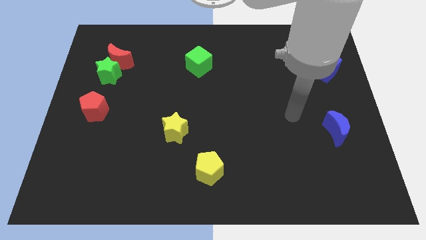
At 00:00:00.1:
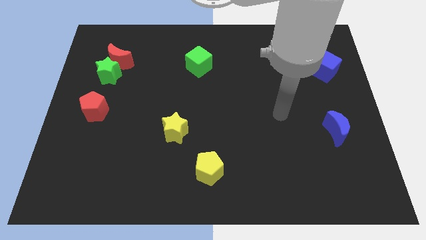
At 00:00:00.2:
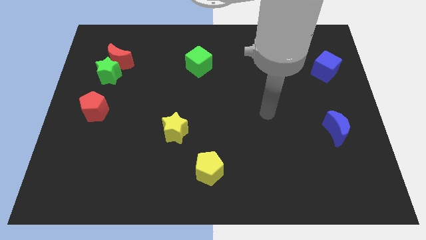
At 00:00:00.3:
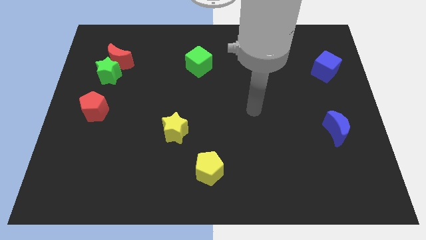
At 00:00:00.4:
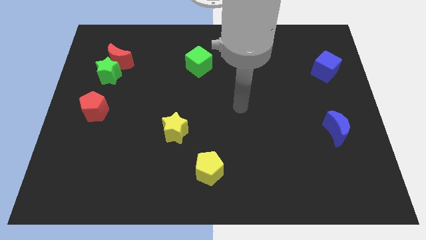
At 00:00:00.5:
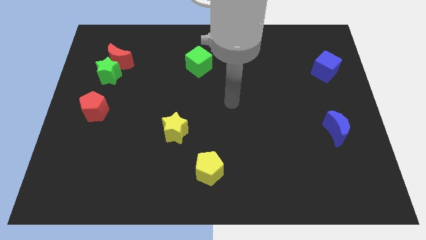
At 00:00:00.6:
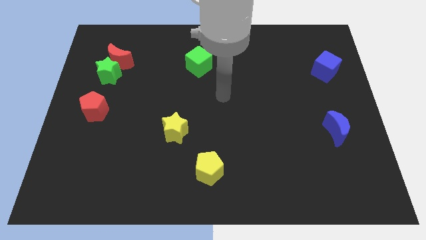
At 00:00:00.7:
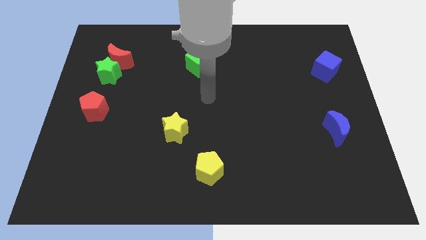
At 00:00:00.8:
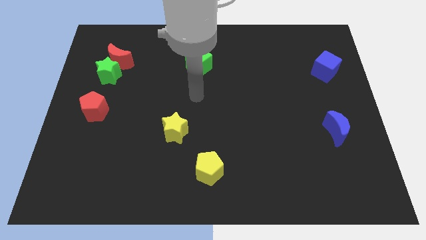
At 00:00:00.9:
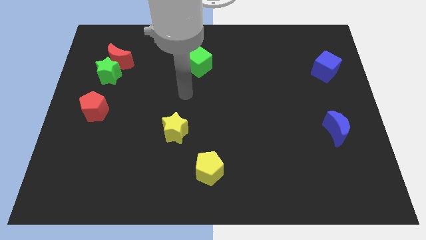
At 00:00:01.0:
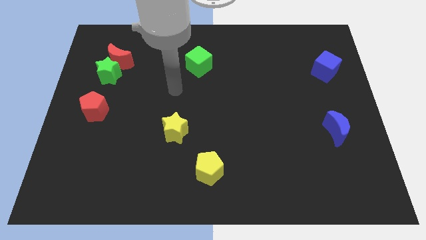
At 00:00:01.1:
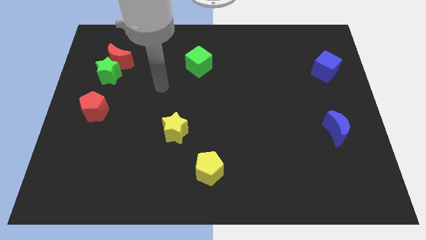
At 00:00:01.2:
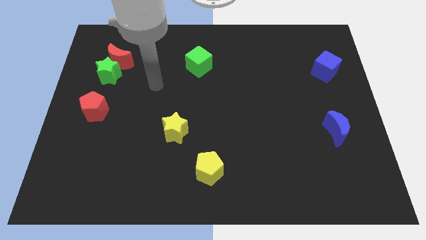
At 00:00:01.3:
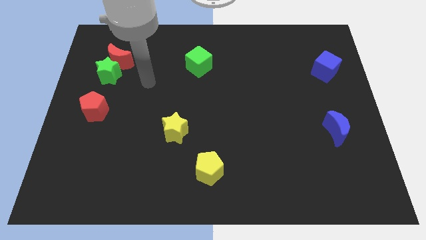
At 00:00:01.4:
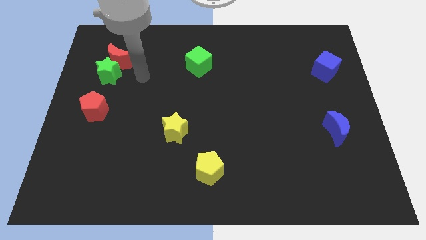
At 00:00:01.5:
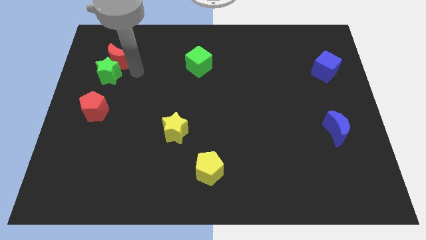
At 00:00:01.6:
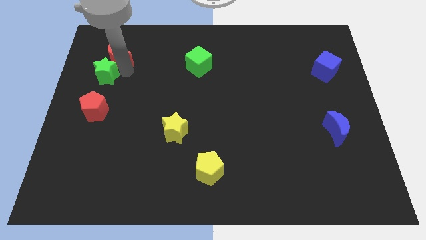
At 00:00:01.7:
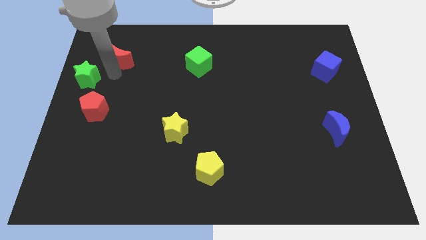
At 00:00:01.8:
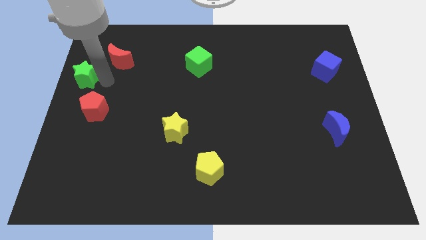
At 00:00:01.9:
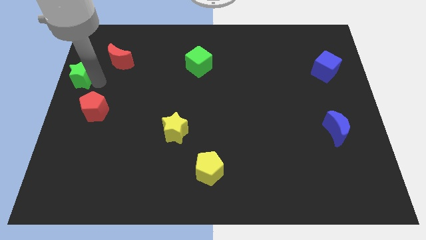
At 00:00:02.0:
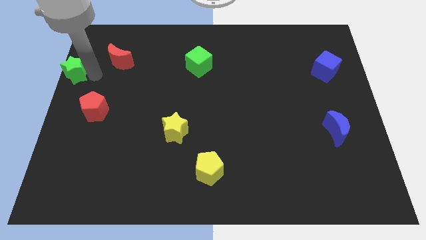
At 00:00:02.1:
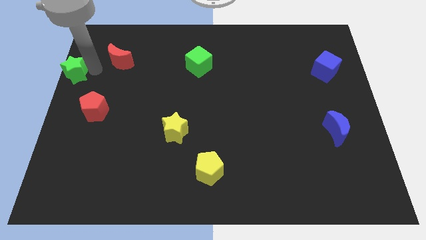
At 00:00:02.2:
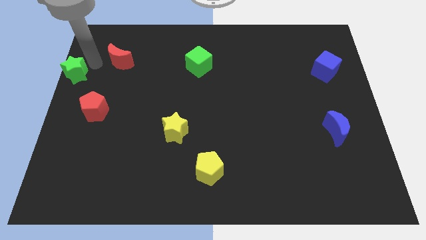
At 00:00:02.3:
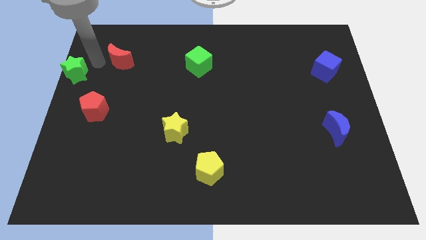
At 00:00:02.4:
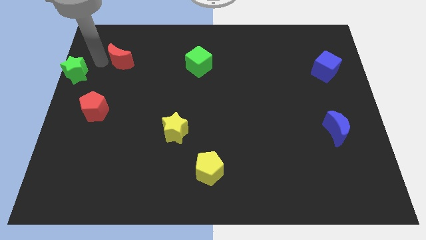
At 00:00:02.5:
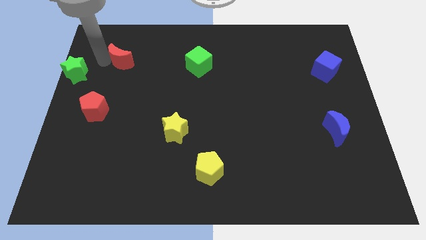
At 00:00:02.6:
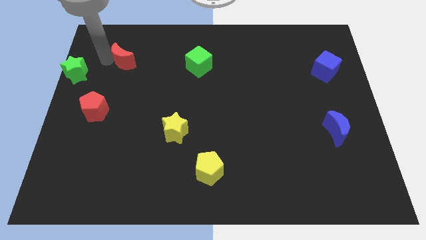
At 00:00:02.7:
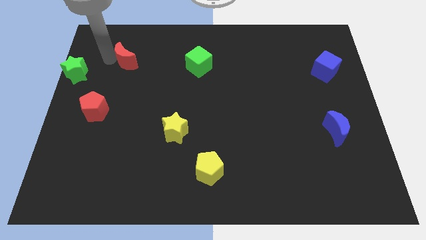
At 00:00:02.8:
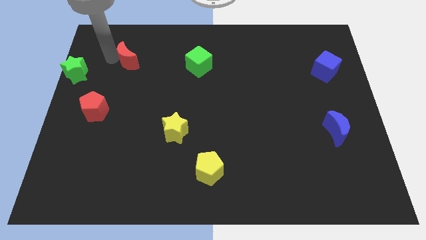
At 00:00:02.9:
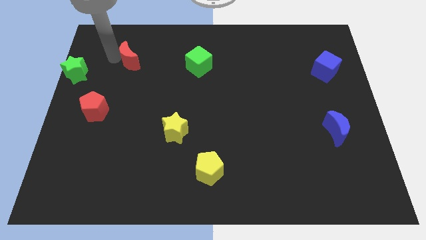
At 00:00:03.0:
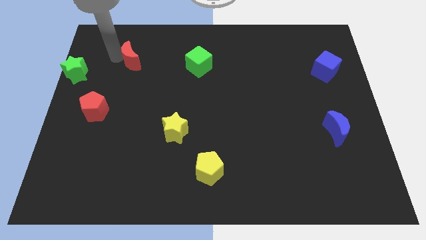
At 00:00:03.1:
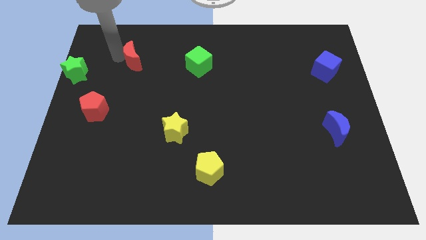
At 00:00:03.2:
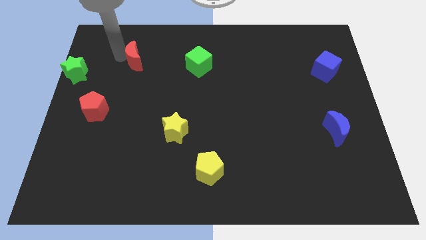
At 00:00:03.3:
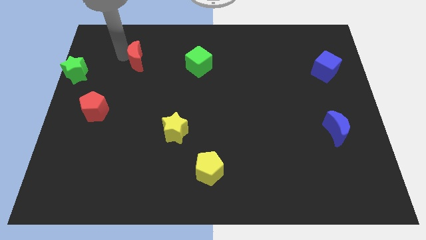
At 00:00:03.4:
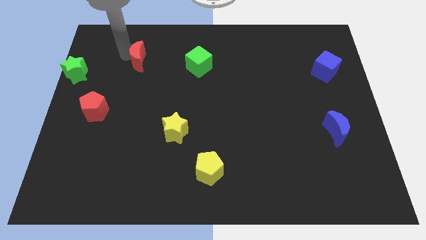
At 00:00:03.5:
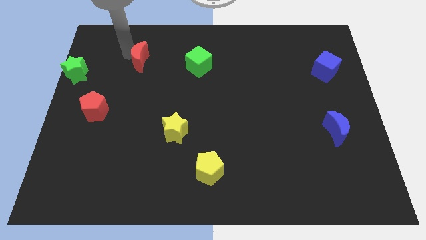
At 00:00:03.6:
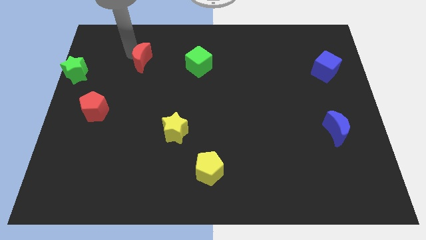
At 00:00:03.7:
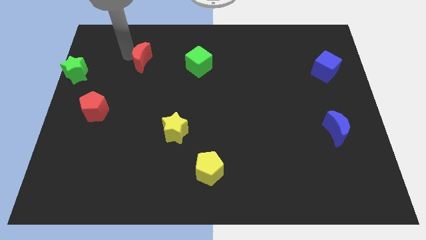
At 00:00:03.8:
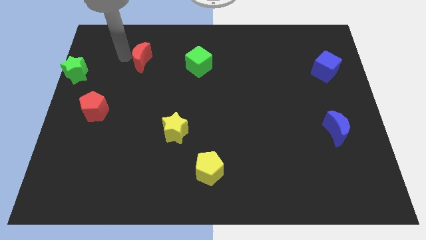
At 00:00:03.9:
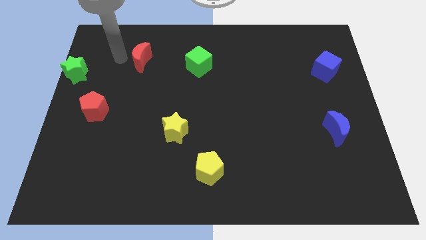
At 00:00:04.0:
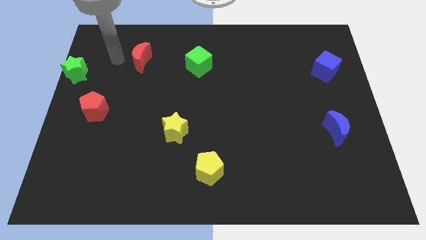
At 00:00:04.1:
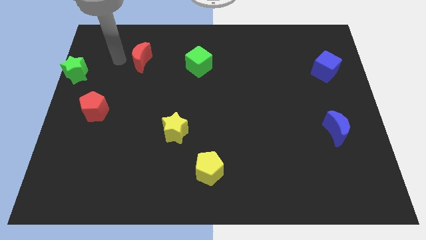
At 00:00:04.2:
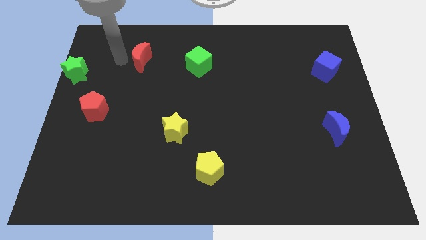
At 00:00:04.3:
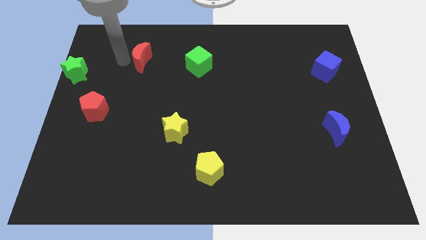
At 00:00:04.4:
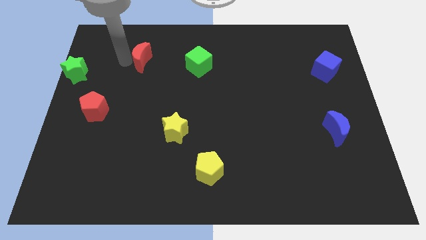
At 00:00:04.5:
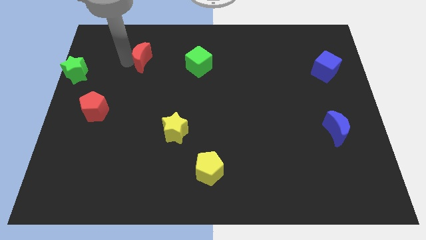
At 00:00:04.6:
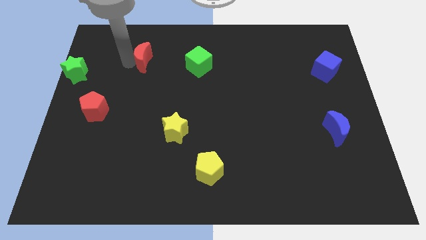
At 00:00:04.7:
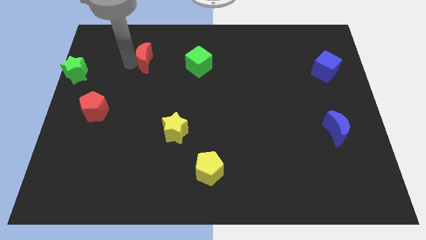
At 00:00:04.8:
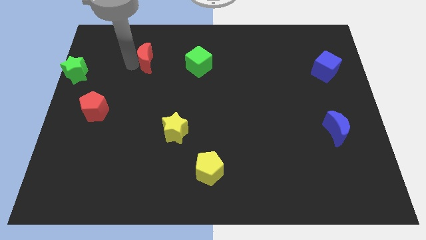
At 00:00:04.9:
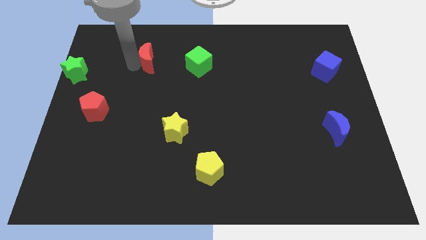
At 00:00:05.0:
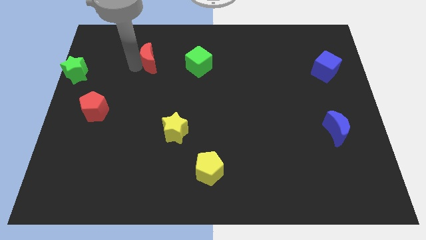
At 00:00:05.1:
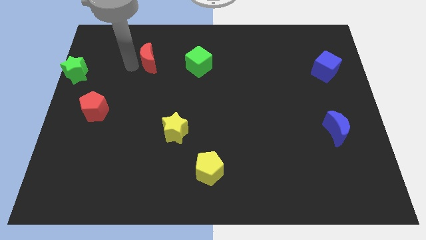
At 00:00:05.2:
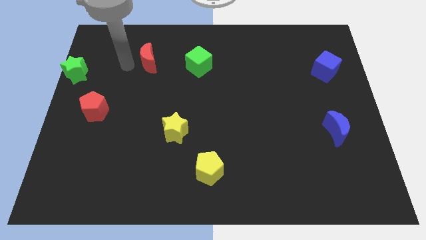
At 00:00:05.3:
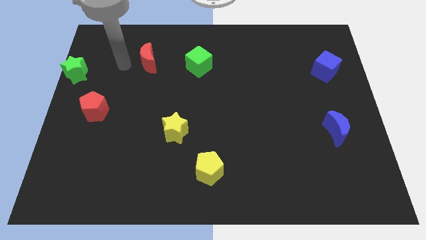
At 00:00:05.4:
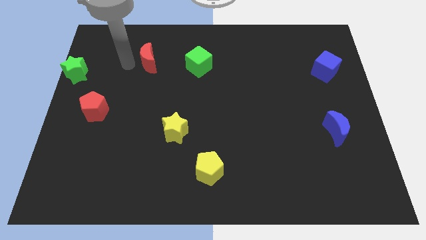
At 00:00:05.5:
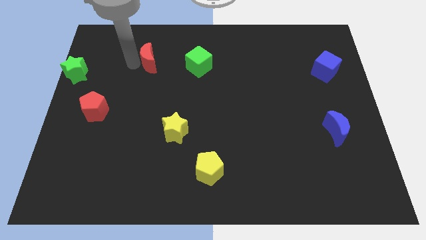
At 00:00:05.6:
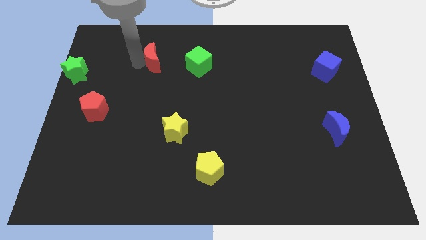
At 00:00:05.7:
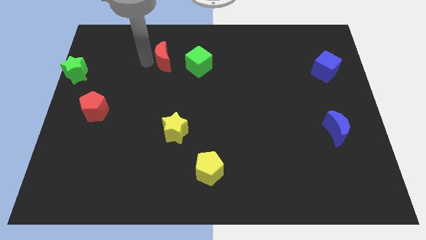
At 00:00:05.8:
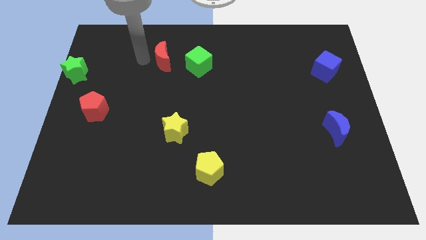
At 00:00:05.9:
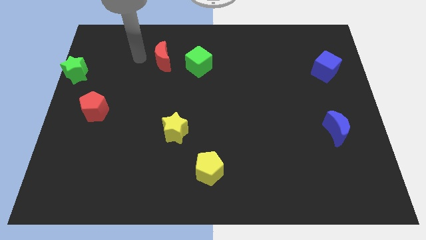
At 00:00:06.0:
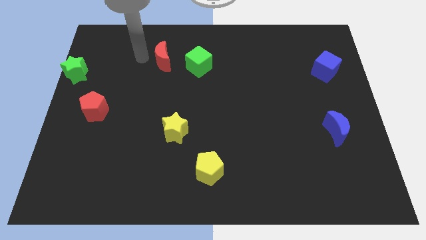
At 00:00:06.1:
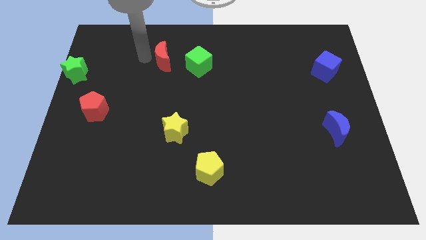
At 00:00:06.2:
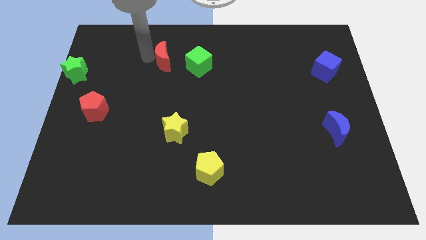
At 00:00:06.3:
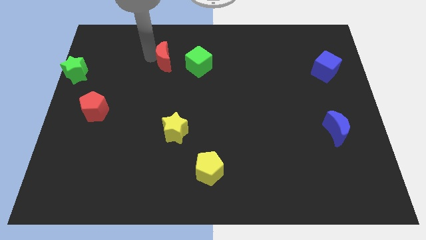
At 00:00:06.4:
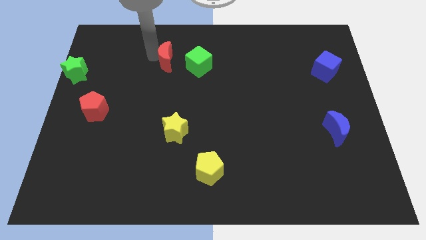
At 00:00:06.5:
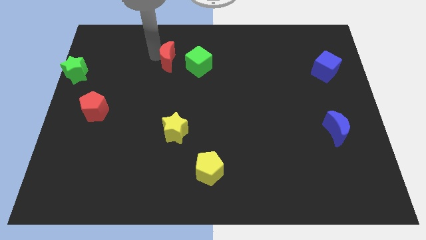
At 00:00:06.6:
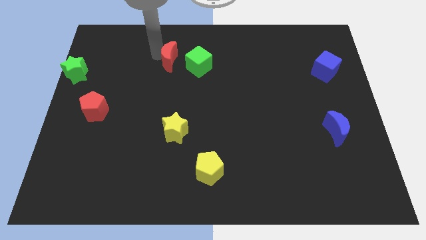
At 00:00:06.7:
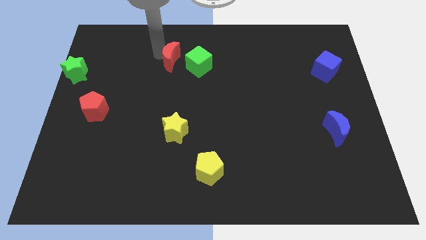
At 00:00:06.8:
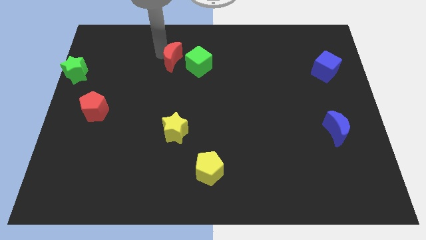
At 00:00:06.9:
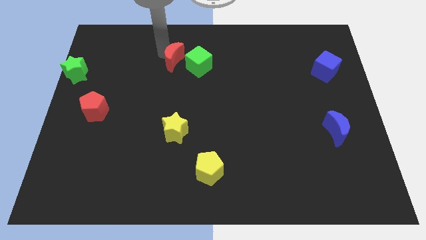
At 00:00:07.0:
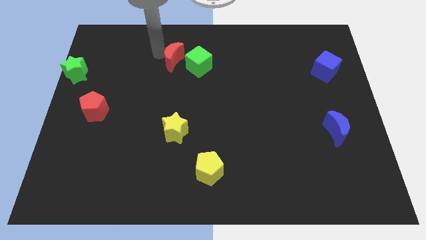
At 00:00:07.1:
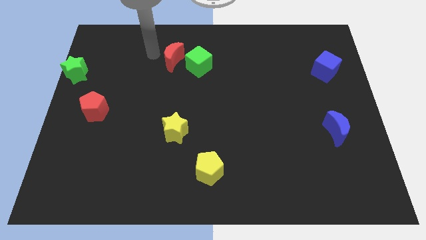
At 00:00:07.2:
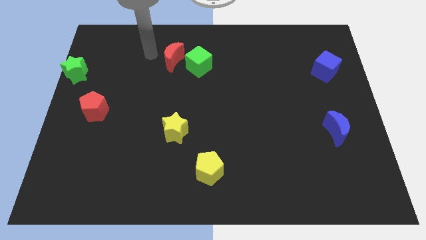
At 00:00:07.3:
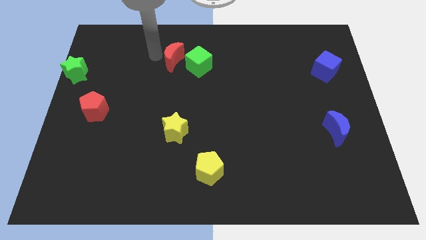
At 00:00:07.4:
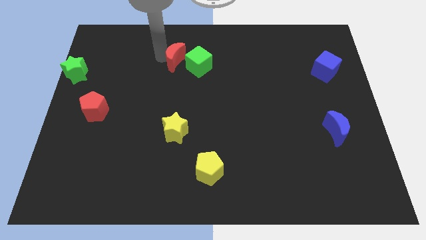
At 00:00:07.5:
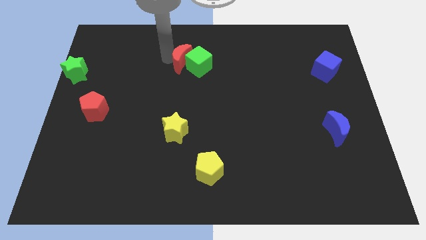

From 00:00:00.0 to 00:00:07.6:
move the red moon next to the green cube
